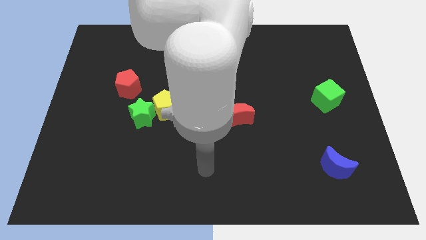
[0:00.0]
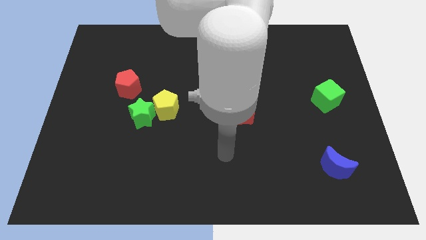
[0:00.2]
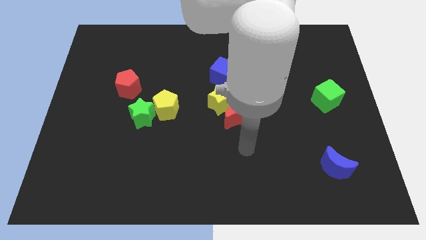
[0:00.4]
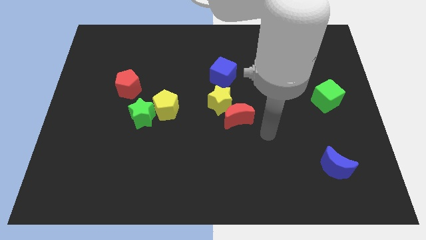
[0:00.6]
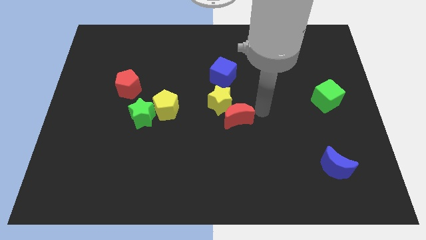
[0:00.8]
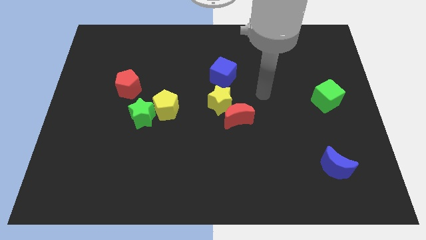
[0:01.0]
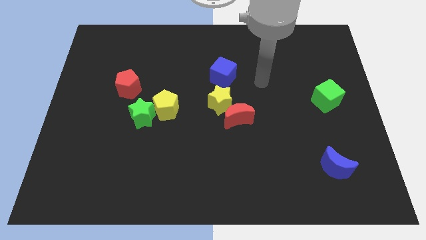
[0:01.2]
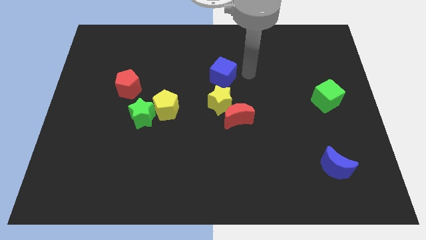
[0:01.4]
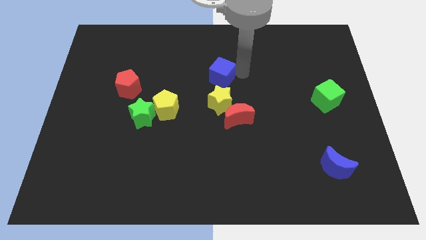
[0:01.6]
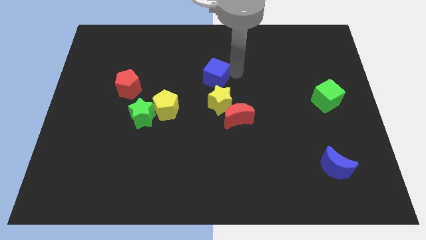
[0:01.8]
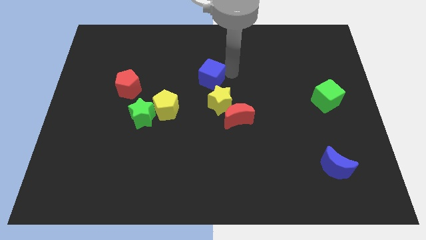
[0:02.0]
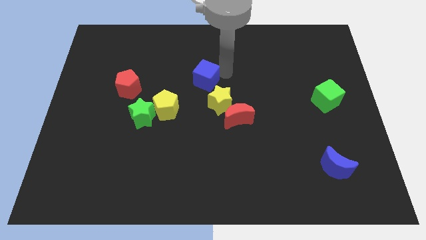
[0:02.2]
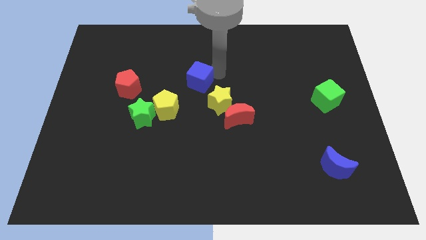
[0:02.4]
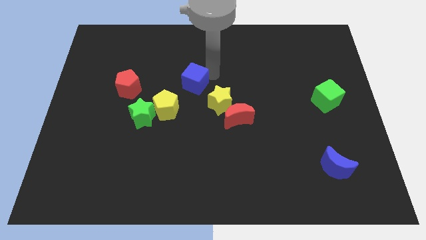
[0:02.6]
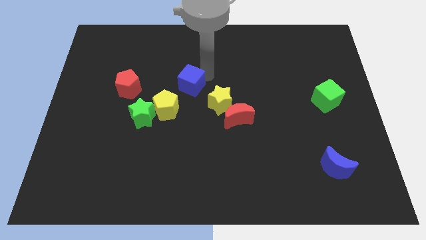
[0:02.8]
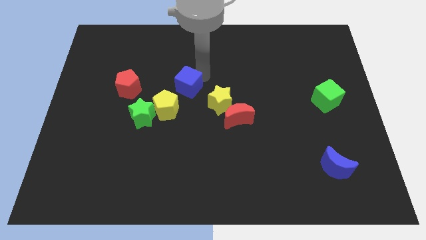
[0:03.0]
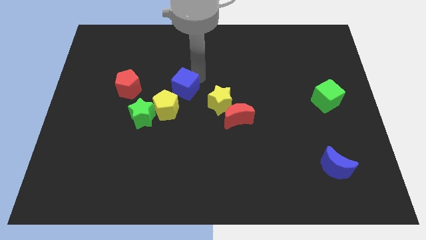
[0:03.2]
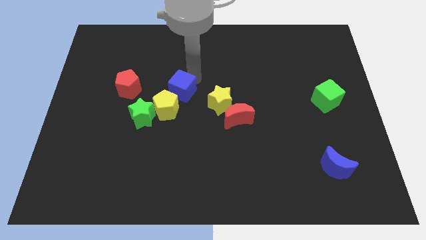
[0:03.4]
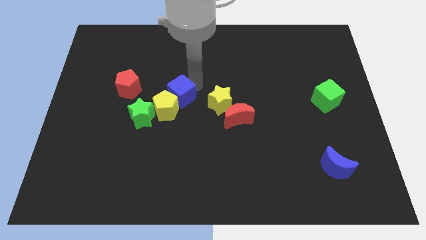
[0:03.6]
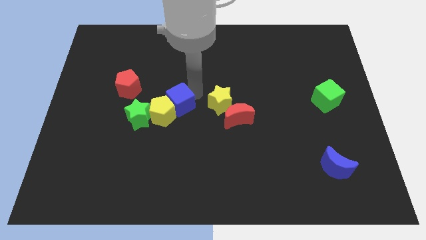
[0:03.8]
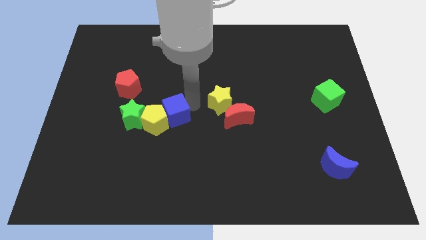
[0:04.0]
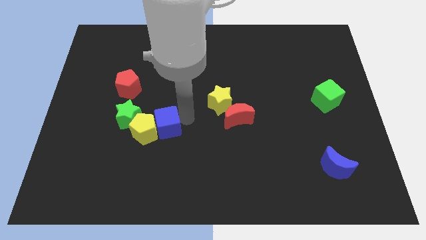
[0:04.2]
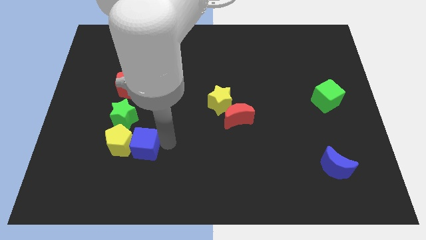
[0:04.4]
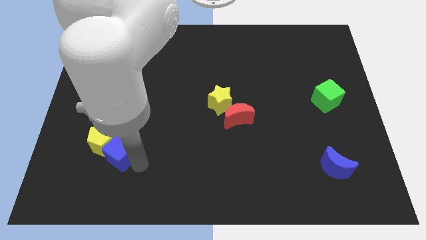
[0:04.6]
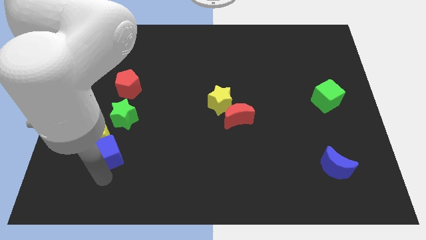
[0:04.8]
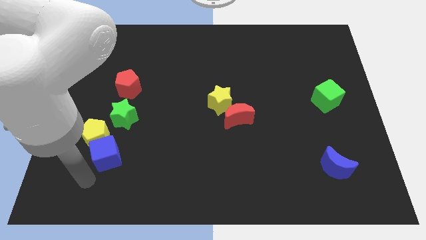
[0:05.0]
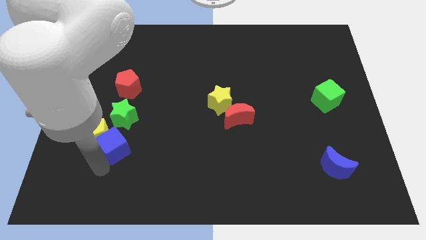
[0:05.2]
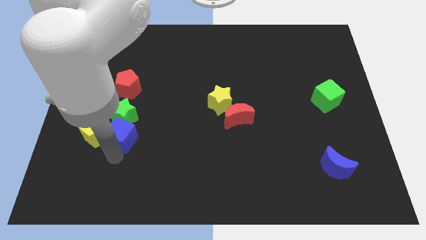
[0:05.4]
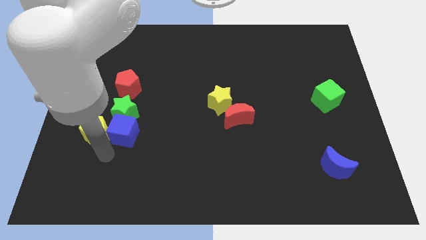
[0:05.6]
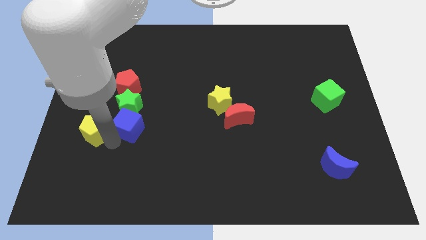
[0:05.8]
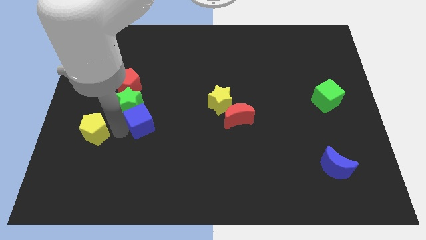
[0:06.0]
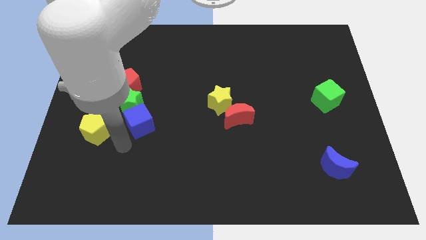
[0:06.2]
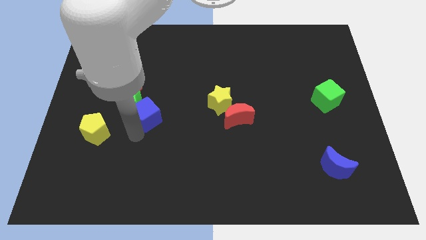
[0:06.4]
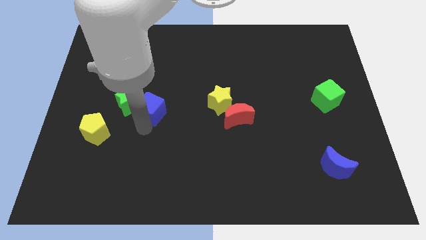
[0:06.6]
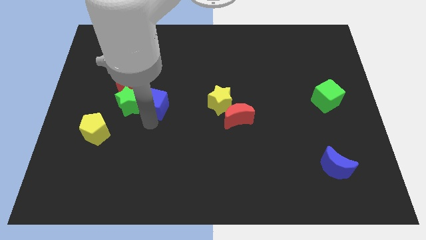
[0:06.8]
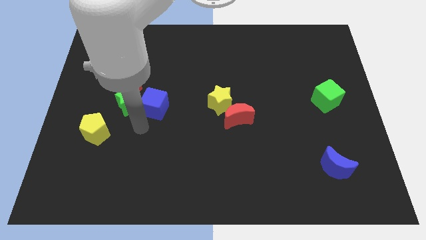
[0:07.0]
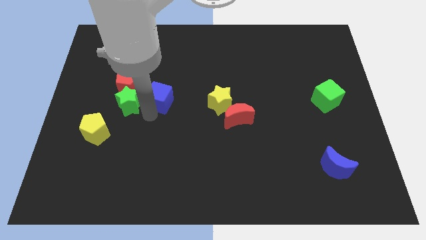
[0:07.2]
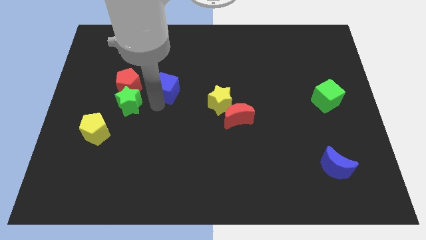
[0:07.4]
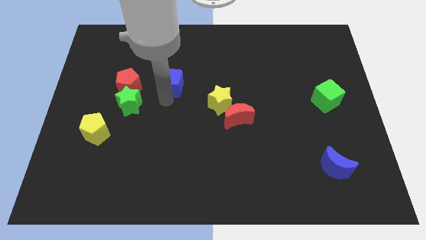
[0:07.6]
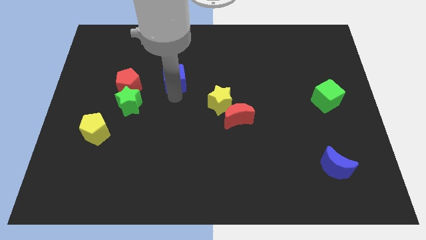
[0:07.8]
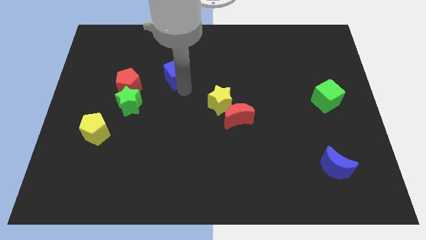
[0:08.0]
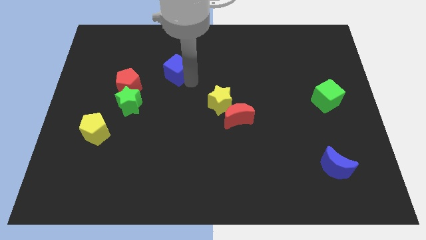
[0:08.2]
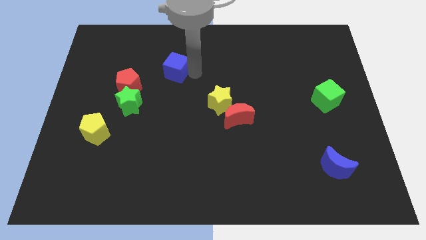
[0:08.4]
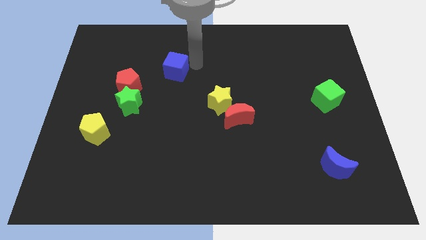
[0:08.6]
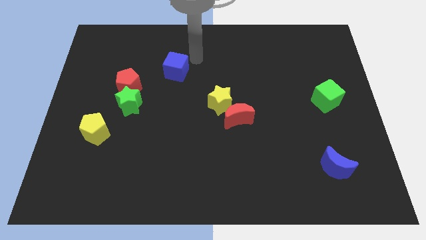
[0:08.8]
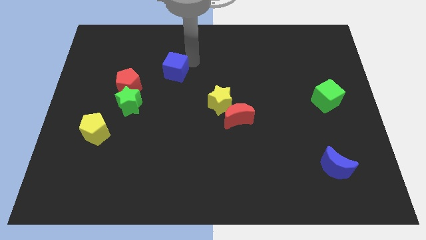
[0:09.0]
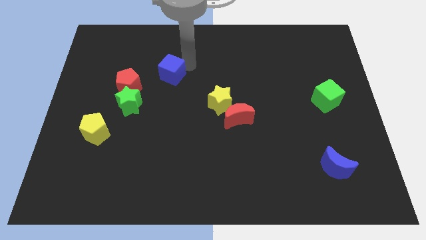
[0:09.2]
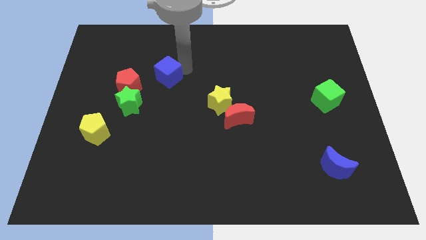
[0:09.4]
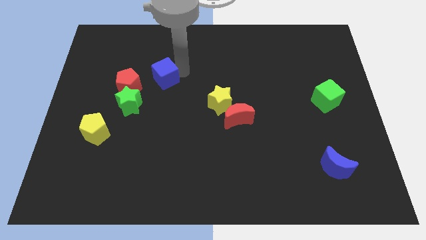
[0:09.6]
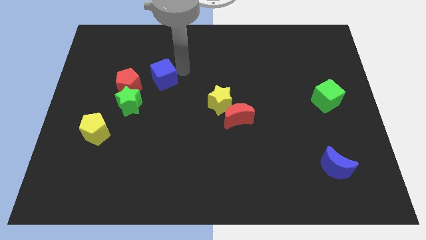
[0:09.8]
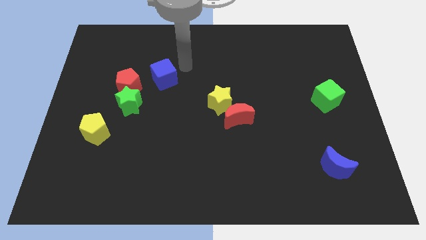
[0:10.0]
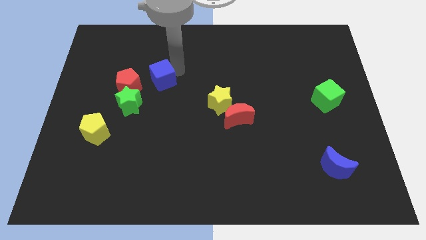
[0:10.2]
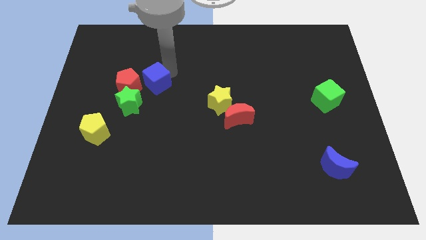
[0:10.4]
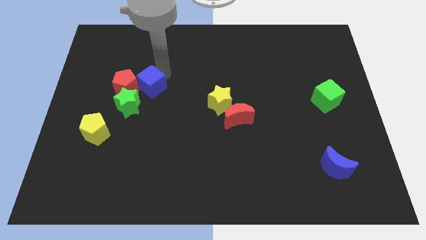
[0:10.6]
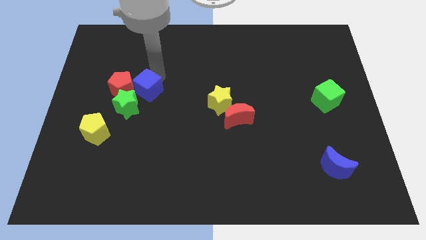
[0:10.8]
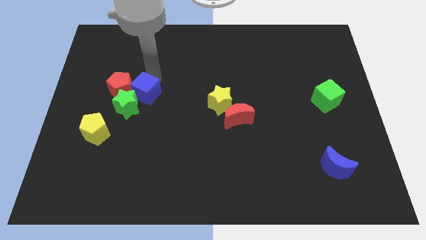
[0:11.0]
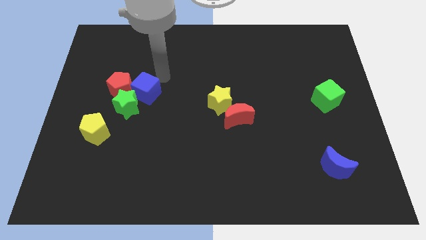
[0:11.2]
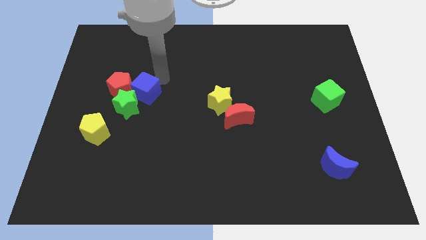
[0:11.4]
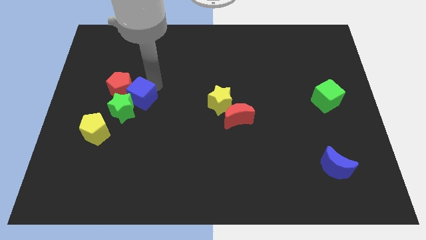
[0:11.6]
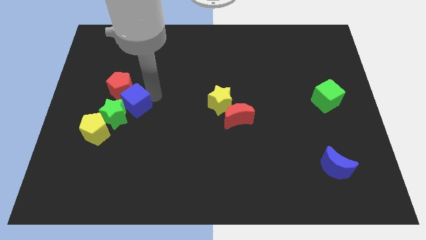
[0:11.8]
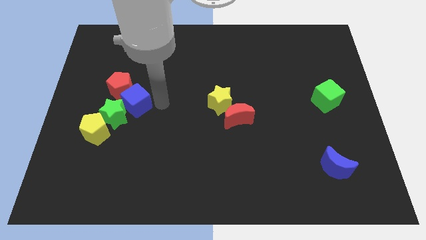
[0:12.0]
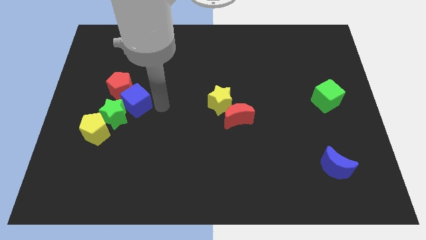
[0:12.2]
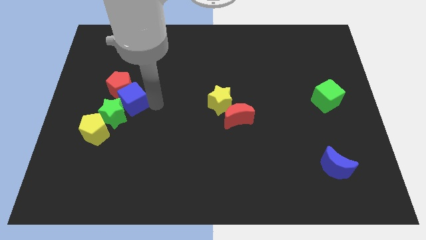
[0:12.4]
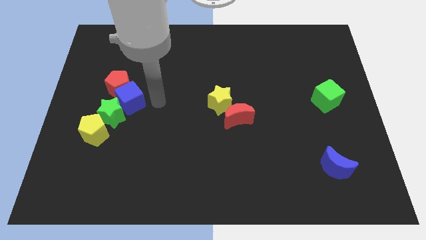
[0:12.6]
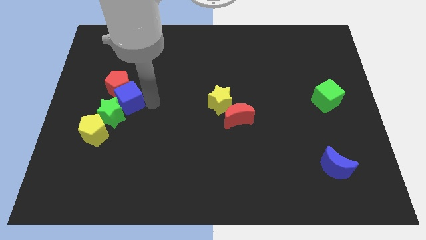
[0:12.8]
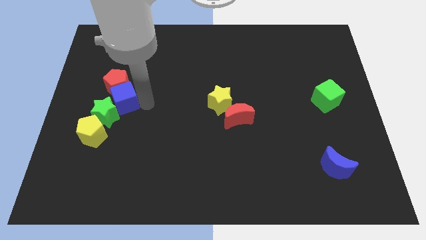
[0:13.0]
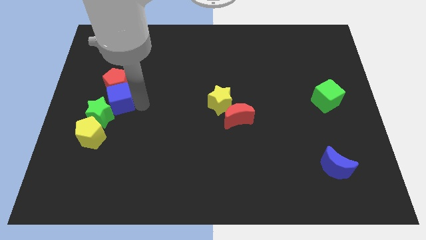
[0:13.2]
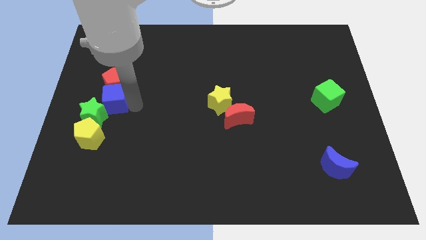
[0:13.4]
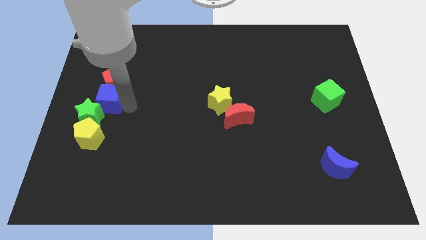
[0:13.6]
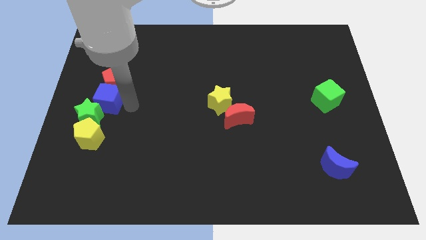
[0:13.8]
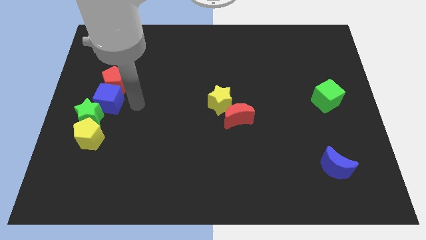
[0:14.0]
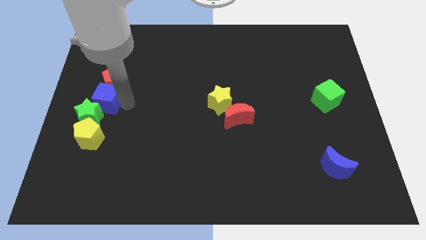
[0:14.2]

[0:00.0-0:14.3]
put the blue cube to the left side
